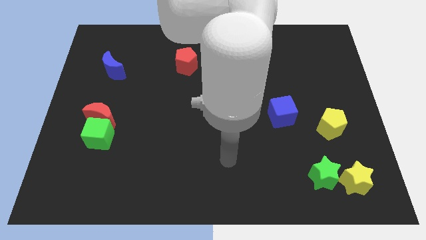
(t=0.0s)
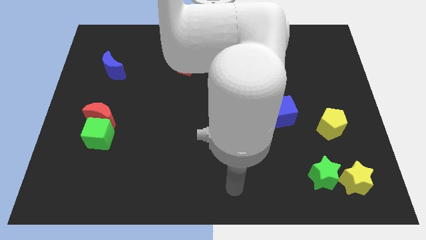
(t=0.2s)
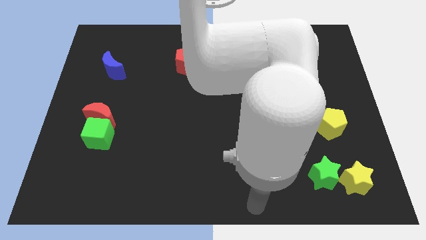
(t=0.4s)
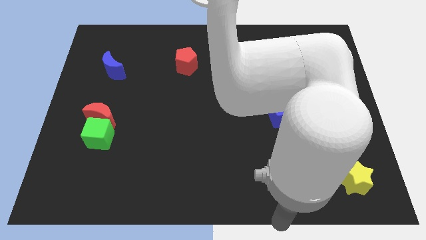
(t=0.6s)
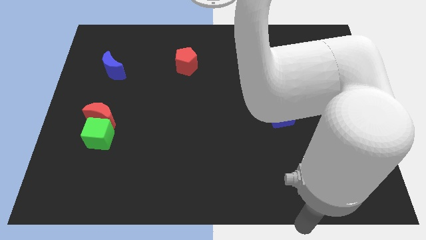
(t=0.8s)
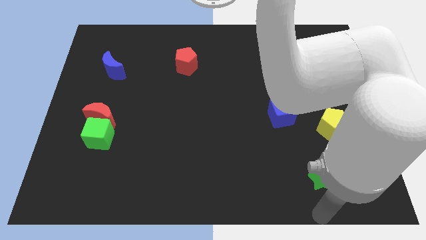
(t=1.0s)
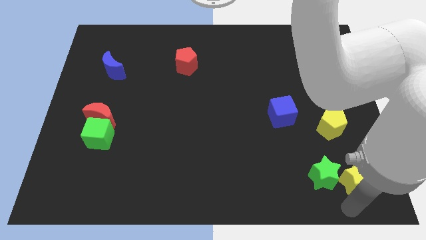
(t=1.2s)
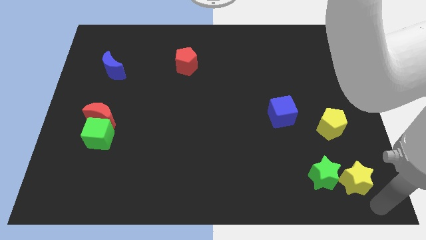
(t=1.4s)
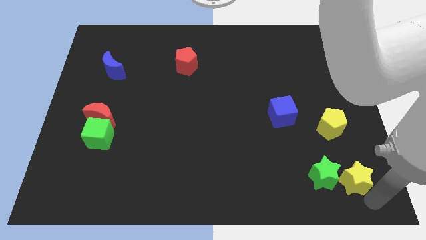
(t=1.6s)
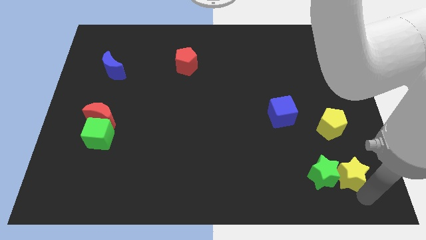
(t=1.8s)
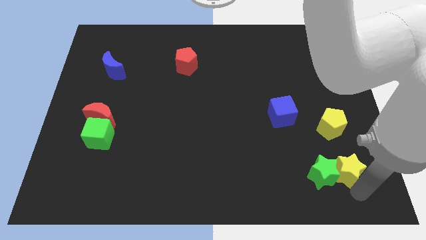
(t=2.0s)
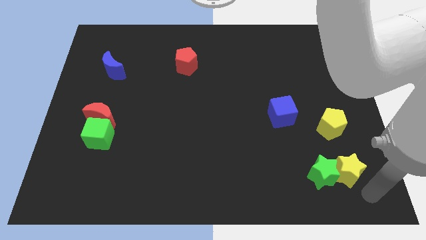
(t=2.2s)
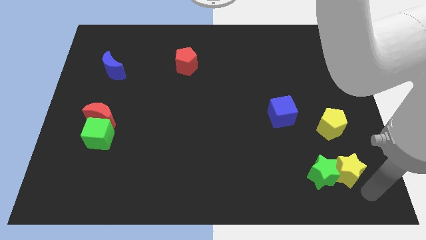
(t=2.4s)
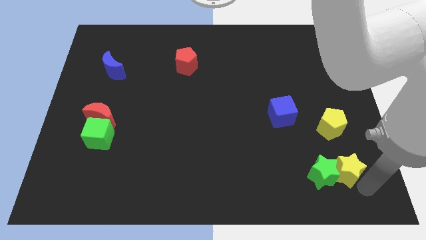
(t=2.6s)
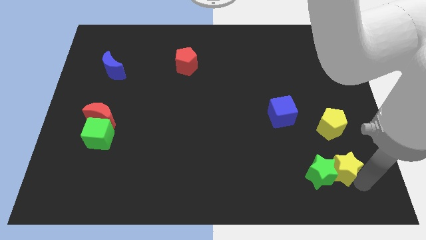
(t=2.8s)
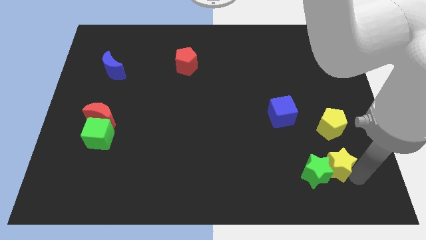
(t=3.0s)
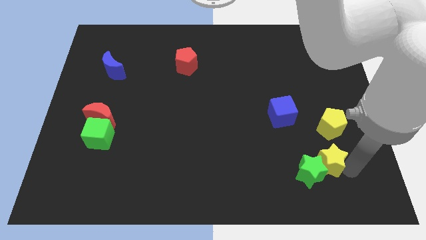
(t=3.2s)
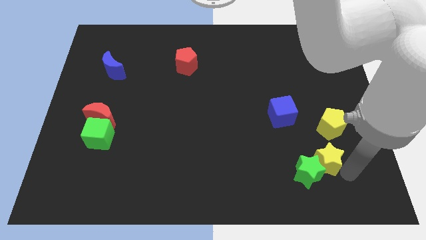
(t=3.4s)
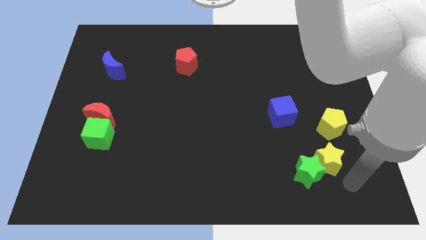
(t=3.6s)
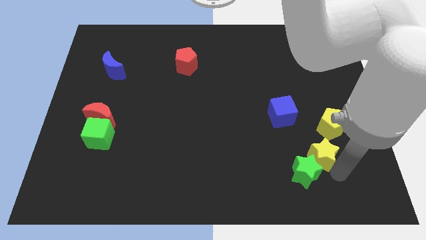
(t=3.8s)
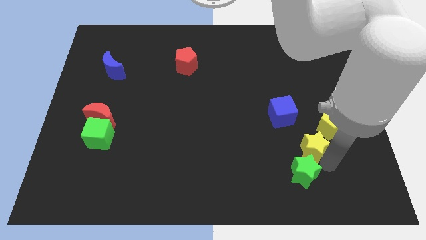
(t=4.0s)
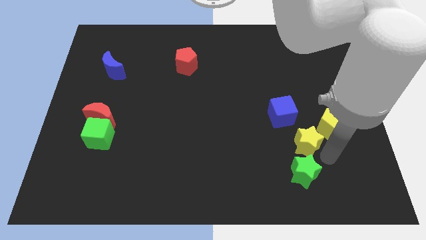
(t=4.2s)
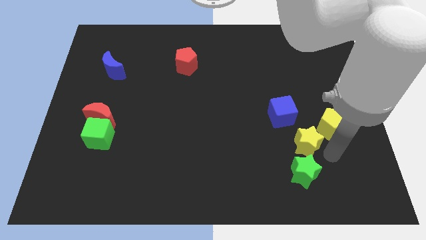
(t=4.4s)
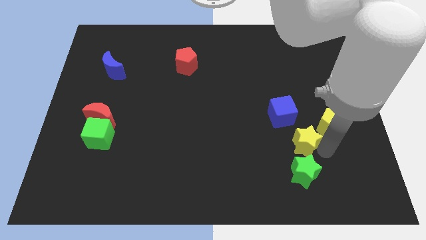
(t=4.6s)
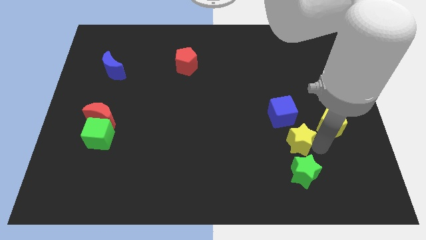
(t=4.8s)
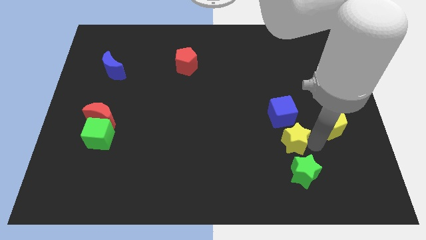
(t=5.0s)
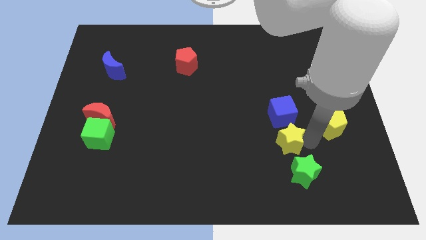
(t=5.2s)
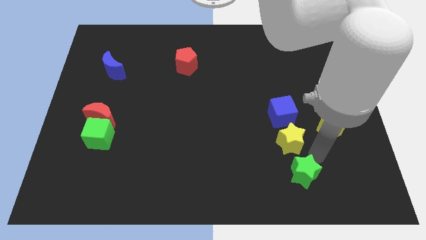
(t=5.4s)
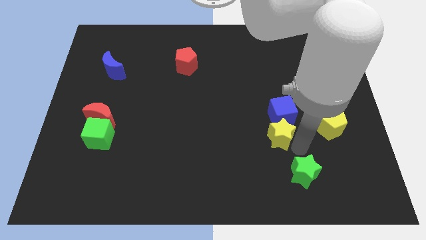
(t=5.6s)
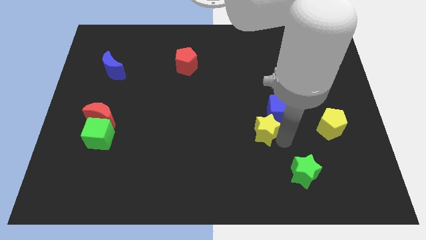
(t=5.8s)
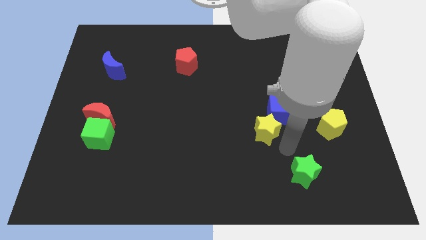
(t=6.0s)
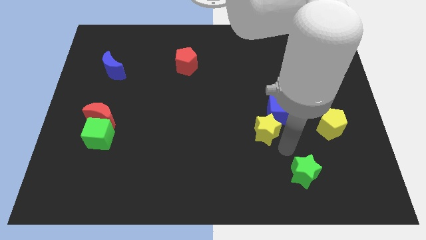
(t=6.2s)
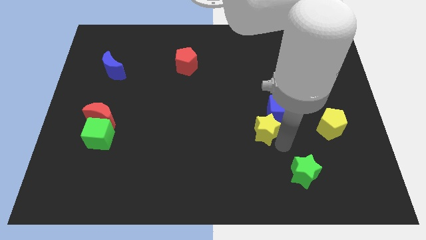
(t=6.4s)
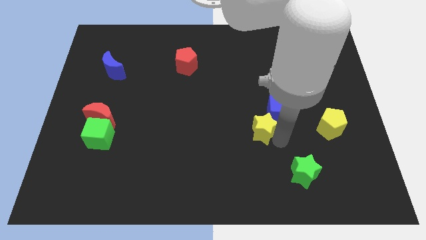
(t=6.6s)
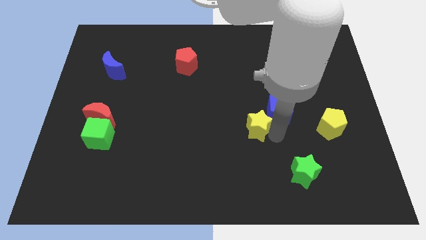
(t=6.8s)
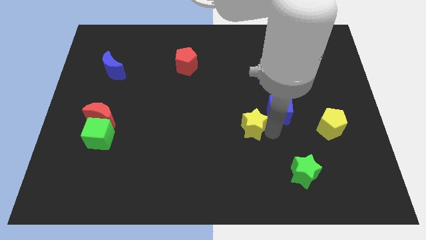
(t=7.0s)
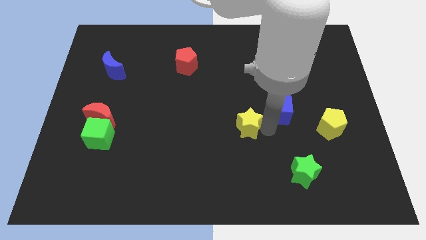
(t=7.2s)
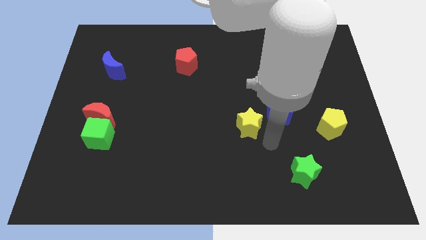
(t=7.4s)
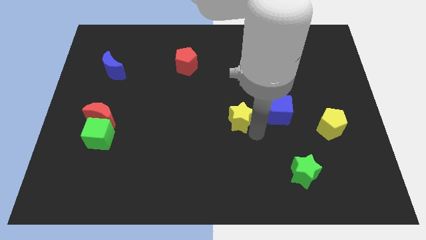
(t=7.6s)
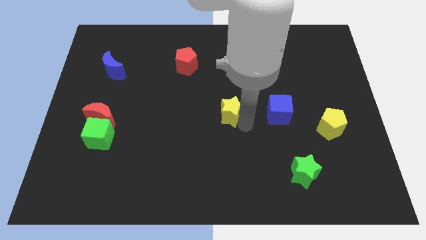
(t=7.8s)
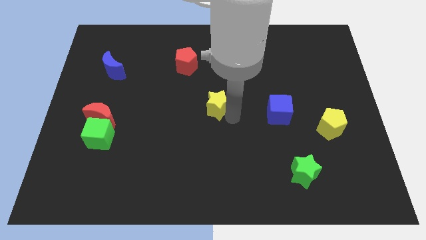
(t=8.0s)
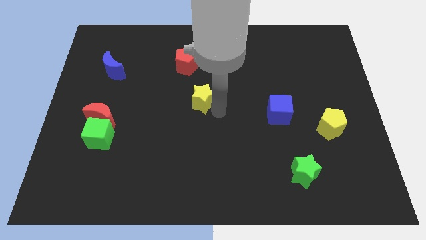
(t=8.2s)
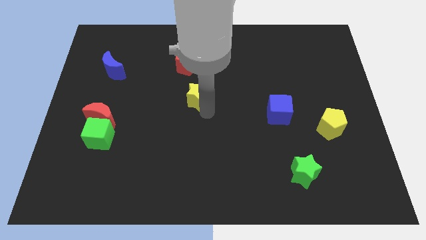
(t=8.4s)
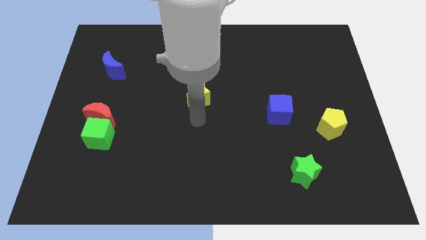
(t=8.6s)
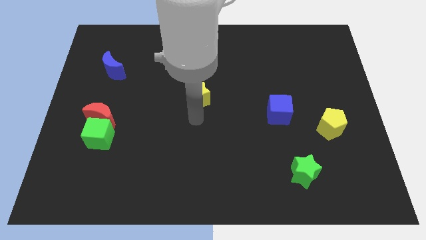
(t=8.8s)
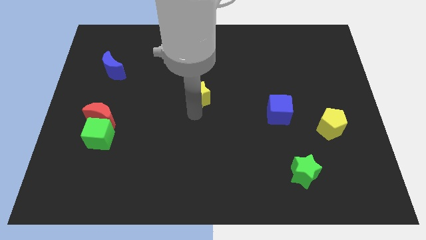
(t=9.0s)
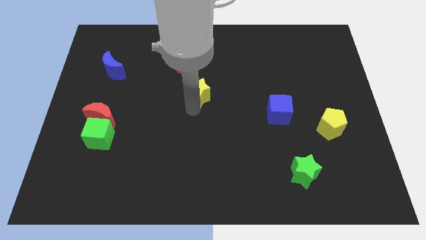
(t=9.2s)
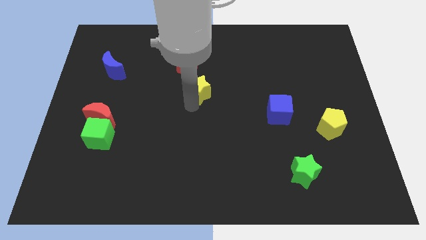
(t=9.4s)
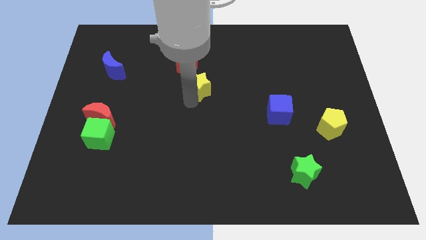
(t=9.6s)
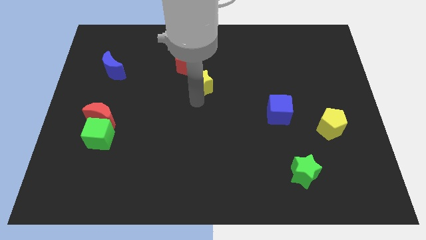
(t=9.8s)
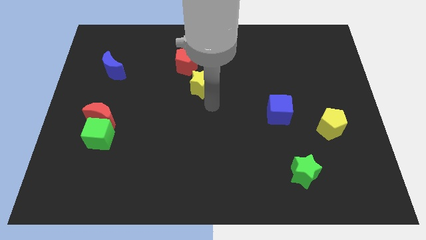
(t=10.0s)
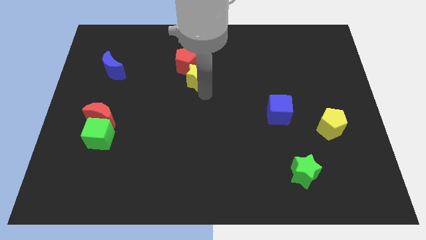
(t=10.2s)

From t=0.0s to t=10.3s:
move the yellow star towards the red pentagon

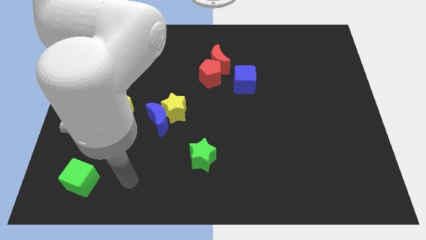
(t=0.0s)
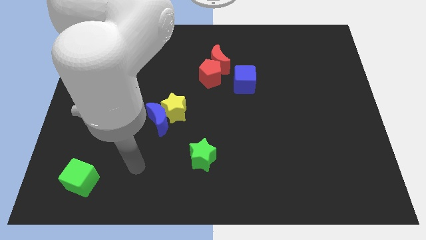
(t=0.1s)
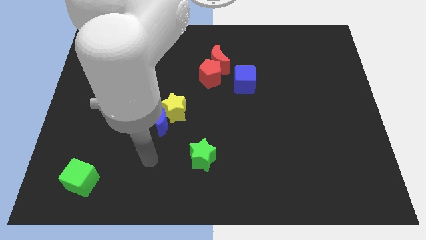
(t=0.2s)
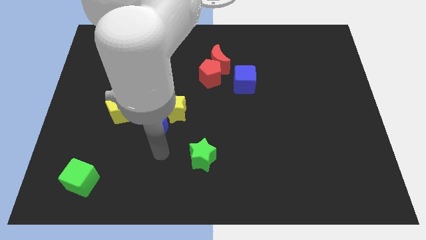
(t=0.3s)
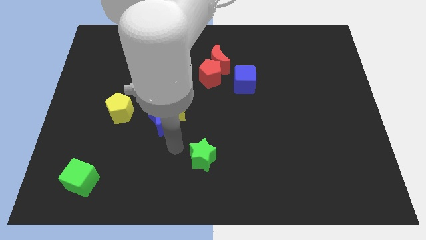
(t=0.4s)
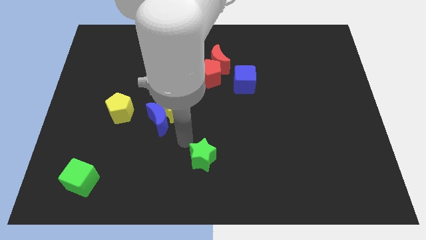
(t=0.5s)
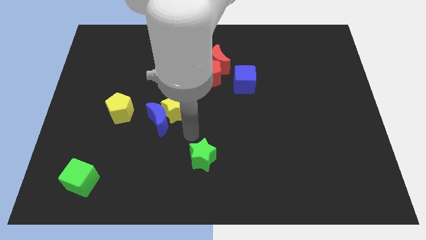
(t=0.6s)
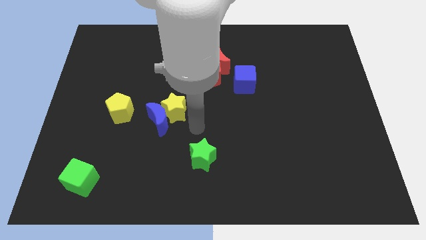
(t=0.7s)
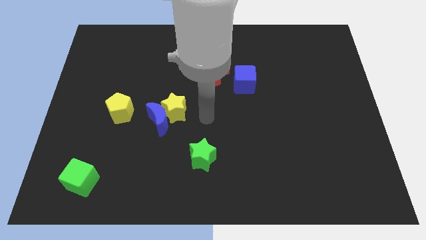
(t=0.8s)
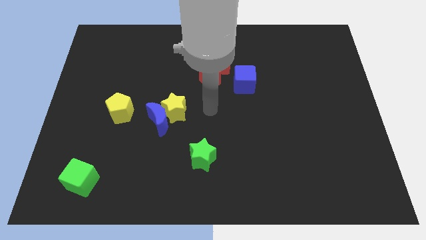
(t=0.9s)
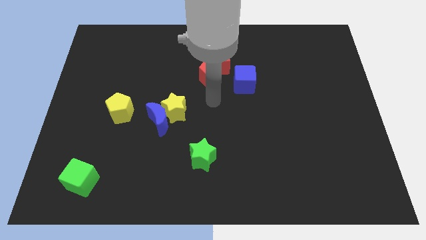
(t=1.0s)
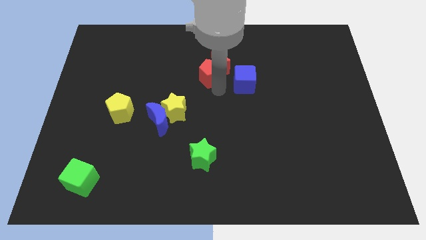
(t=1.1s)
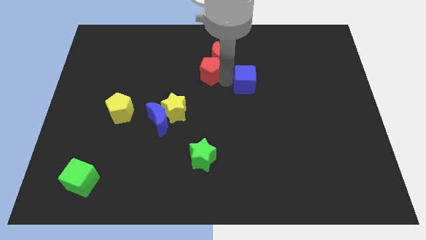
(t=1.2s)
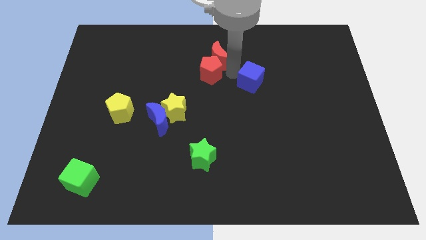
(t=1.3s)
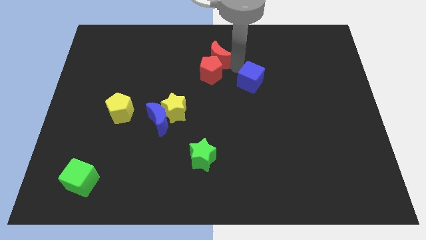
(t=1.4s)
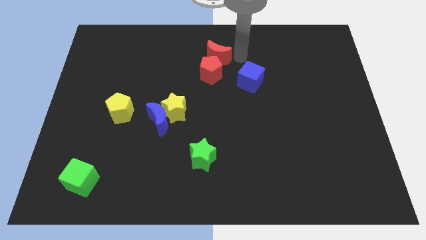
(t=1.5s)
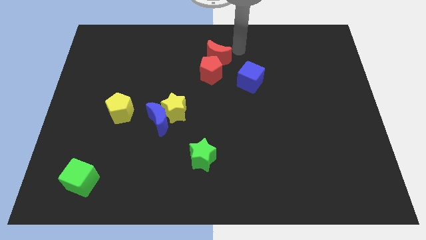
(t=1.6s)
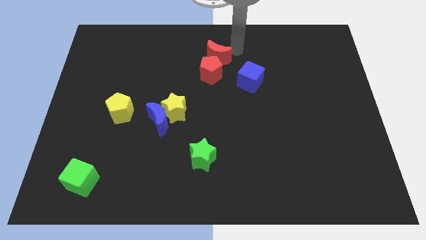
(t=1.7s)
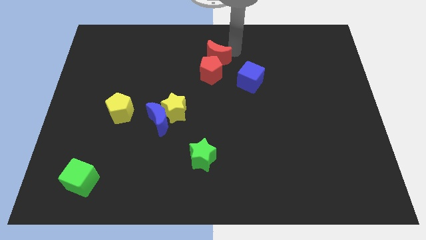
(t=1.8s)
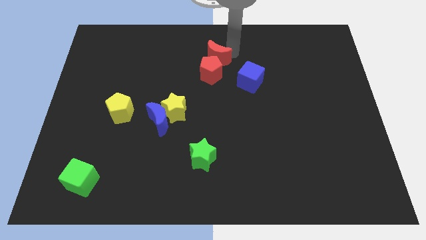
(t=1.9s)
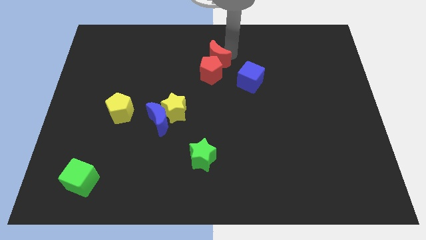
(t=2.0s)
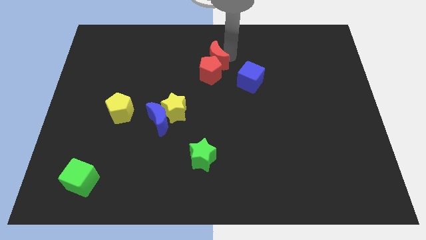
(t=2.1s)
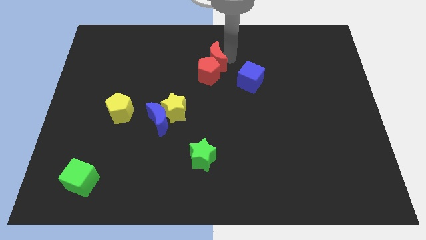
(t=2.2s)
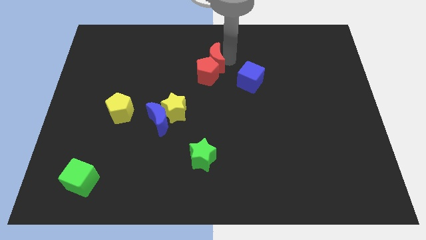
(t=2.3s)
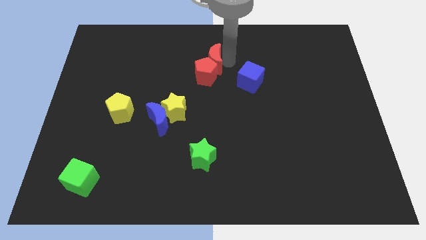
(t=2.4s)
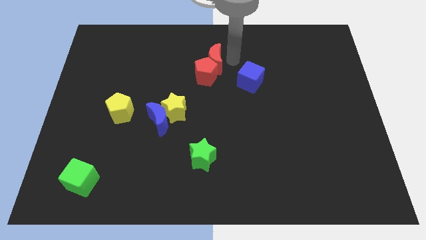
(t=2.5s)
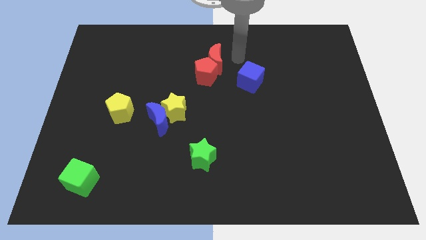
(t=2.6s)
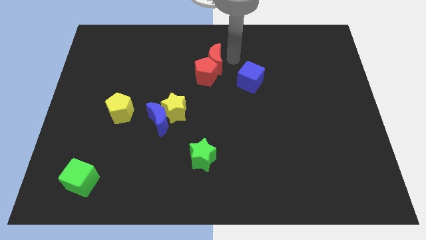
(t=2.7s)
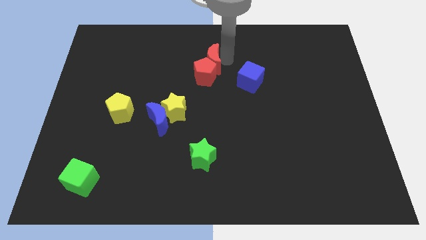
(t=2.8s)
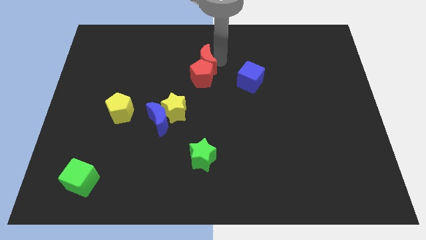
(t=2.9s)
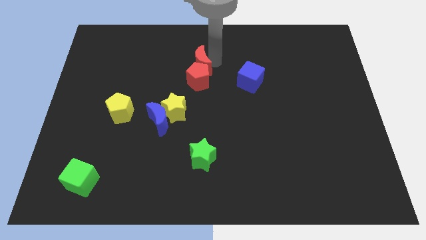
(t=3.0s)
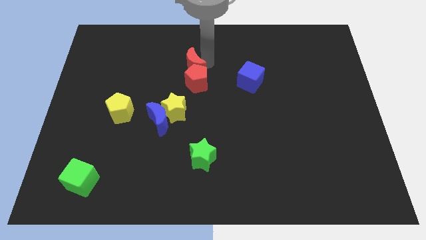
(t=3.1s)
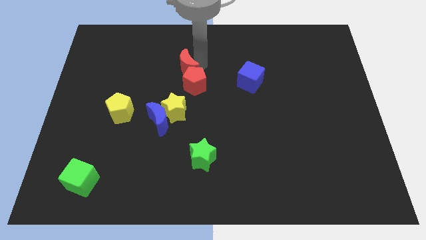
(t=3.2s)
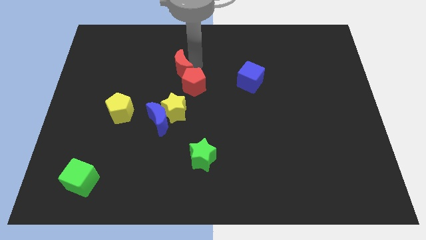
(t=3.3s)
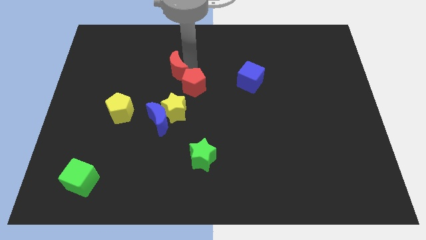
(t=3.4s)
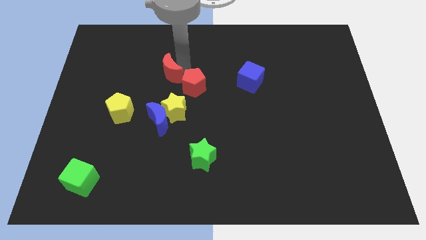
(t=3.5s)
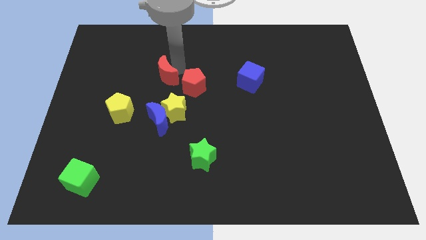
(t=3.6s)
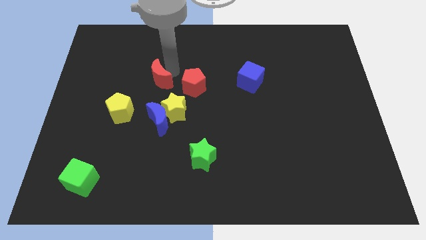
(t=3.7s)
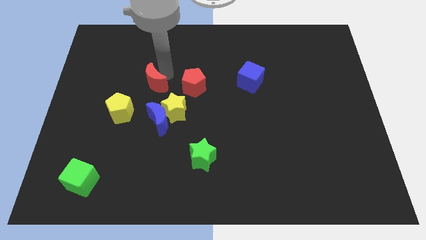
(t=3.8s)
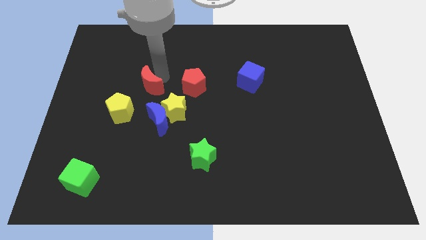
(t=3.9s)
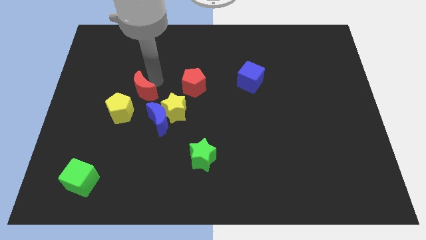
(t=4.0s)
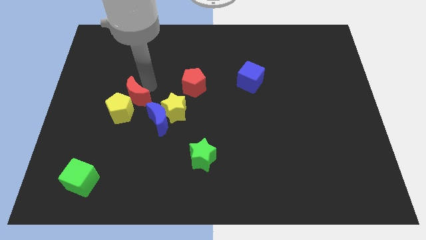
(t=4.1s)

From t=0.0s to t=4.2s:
move the red moon towards the yellow pentagon
